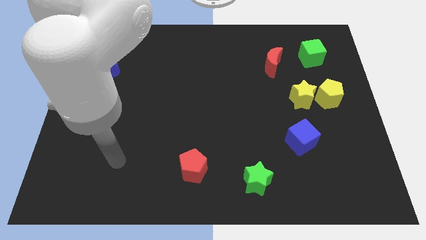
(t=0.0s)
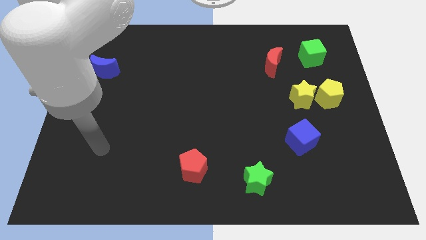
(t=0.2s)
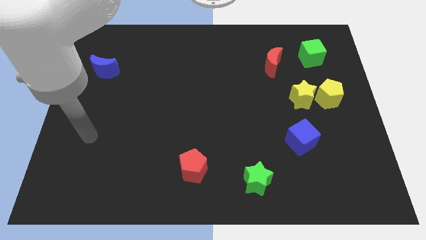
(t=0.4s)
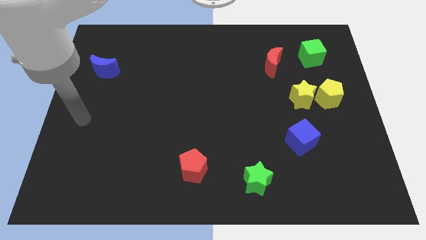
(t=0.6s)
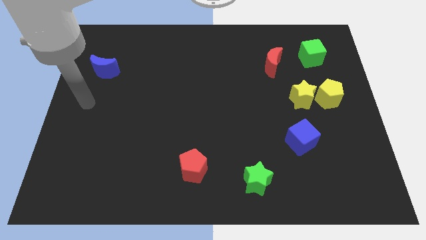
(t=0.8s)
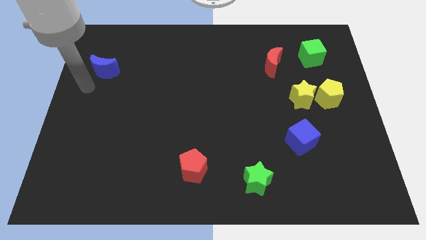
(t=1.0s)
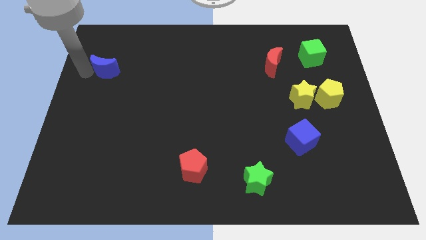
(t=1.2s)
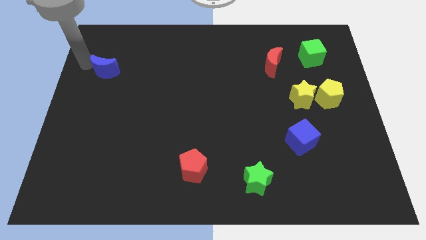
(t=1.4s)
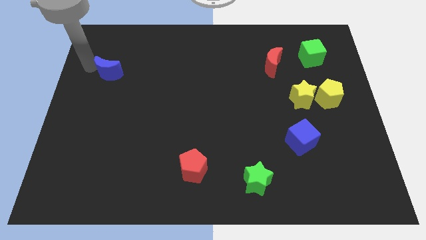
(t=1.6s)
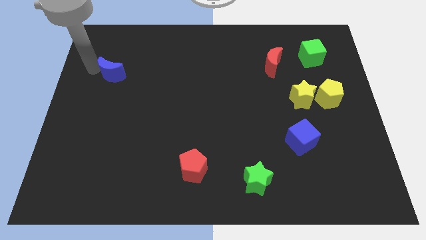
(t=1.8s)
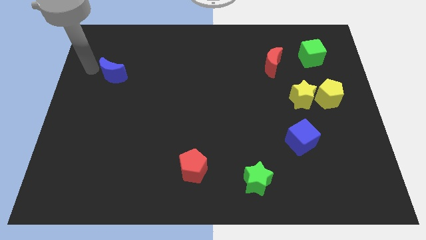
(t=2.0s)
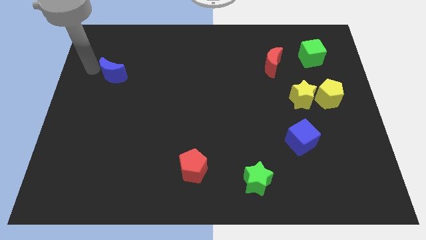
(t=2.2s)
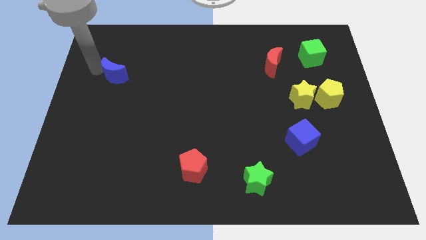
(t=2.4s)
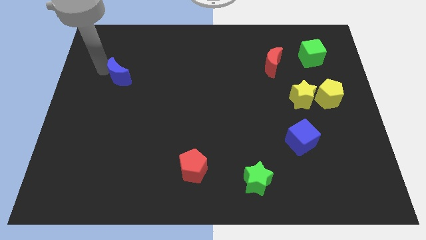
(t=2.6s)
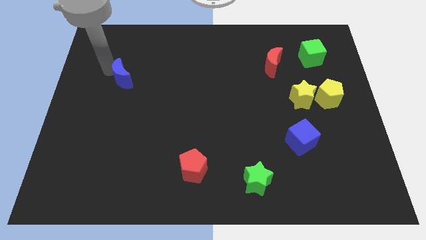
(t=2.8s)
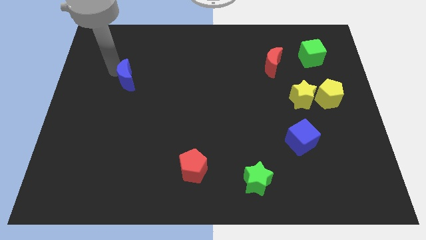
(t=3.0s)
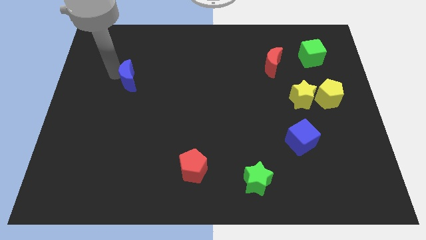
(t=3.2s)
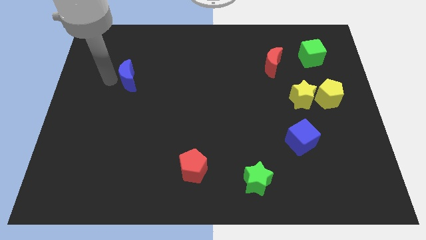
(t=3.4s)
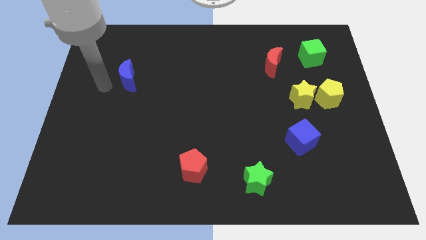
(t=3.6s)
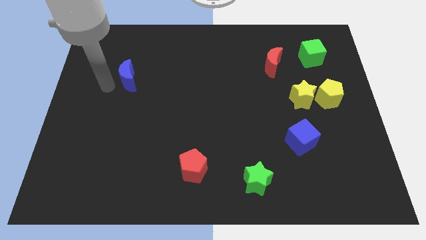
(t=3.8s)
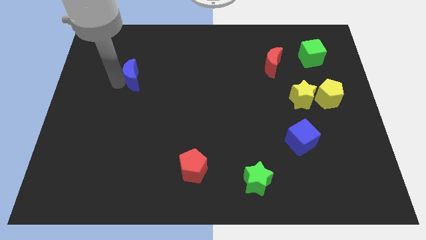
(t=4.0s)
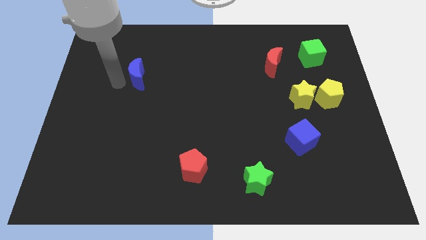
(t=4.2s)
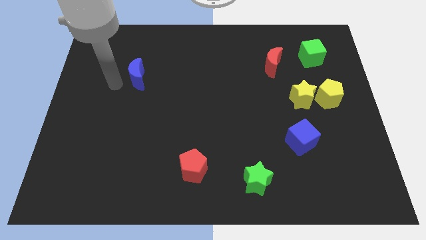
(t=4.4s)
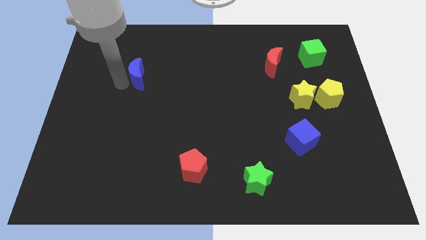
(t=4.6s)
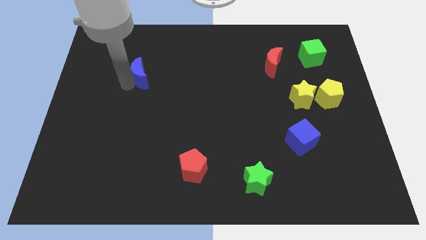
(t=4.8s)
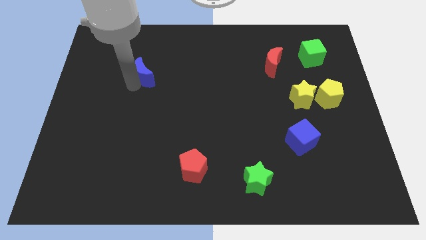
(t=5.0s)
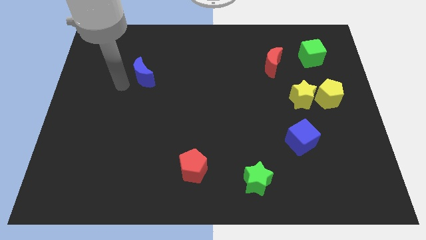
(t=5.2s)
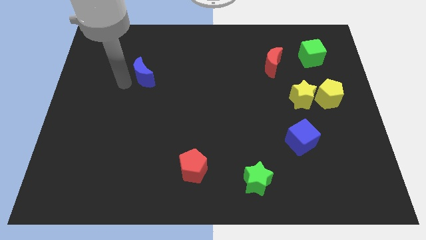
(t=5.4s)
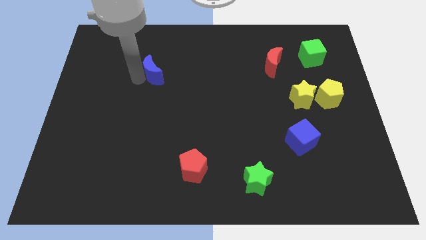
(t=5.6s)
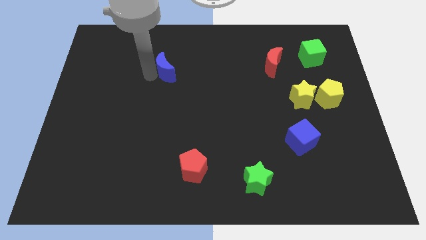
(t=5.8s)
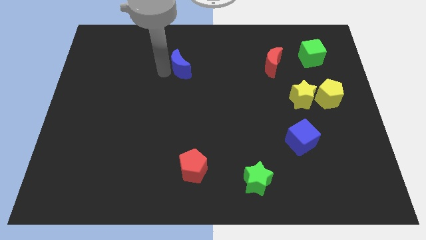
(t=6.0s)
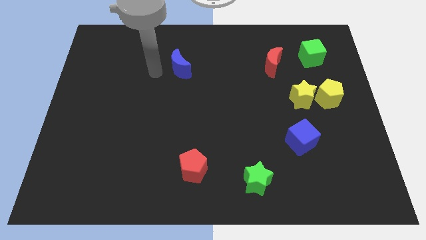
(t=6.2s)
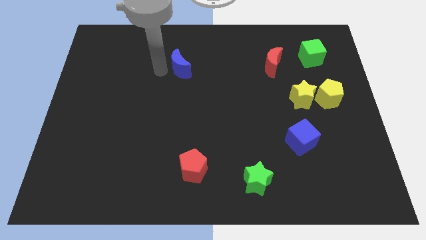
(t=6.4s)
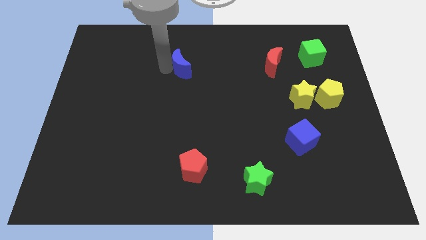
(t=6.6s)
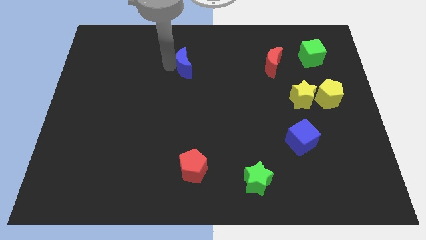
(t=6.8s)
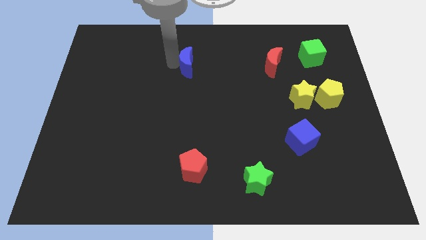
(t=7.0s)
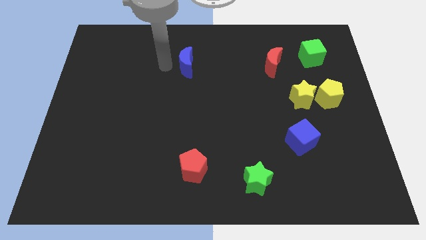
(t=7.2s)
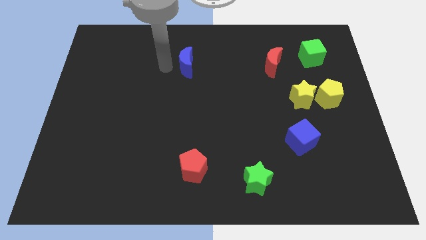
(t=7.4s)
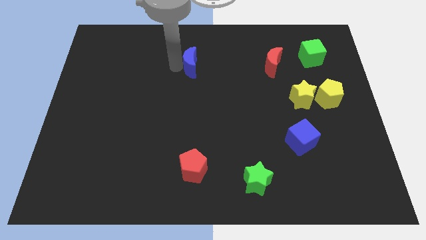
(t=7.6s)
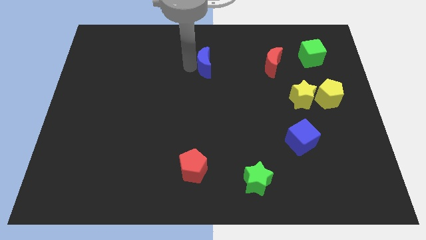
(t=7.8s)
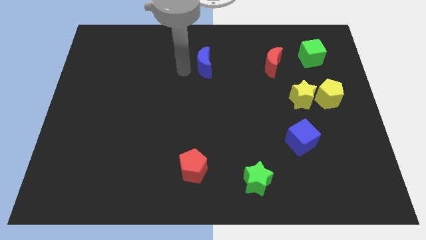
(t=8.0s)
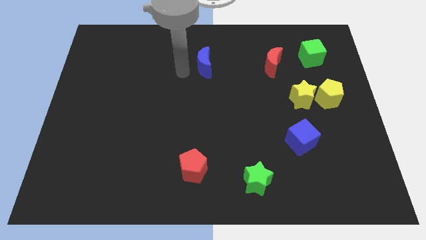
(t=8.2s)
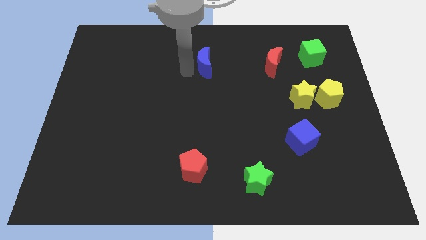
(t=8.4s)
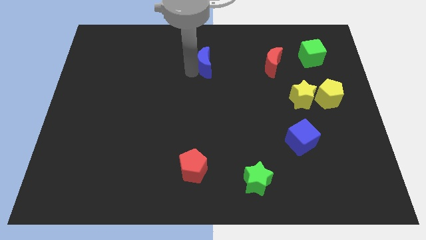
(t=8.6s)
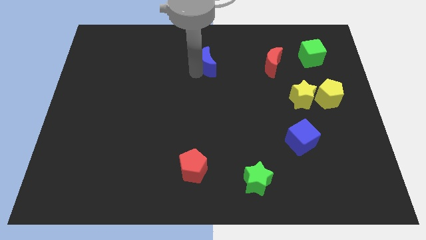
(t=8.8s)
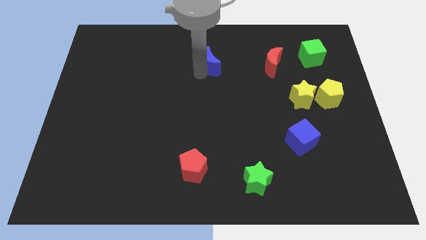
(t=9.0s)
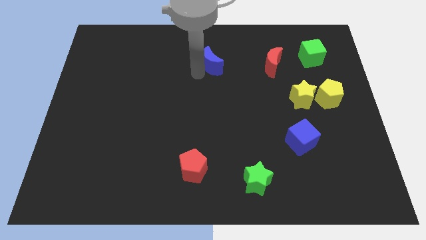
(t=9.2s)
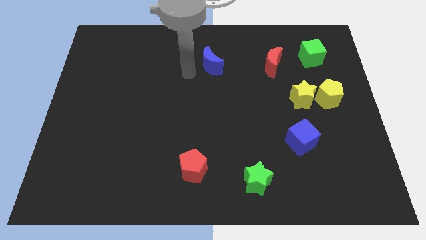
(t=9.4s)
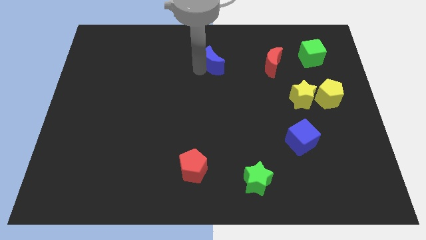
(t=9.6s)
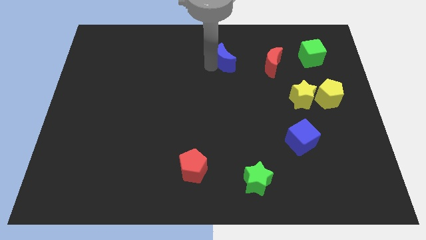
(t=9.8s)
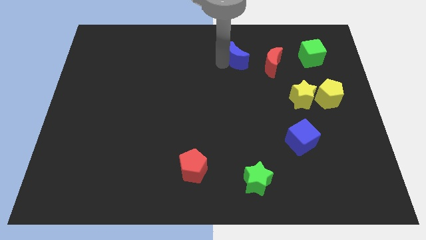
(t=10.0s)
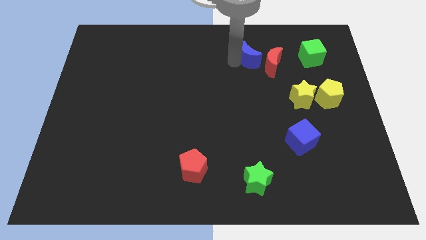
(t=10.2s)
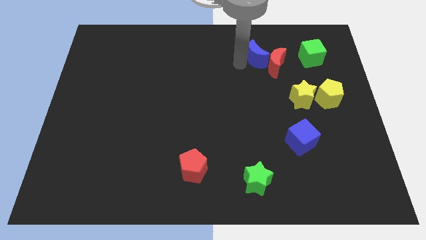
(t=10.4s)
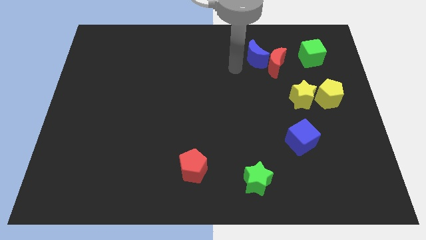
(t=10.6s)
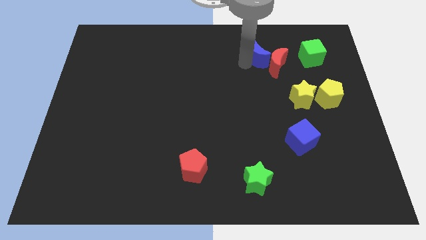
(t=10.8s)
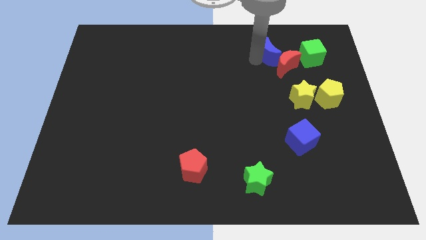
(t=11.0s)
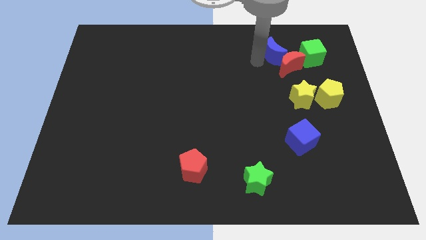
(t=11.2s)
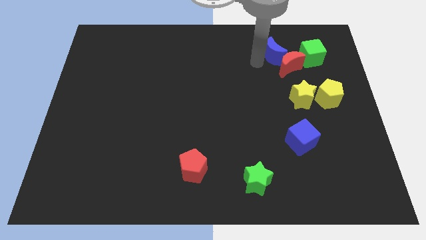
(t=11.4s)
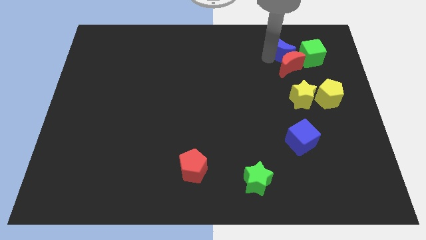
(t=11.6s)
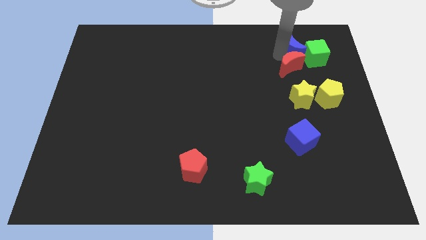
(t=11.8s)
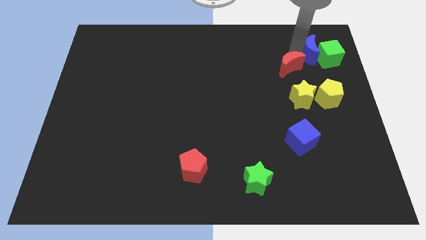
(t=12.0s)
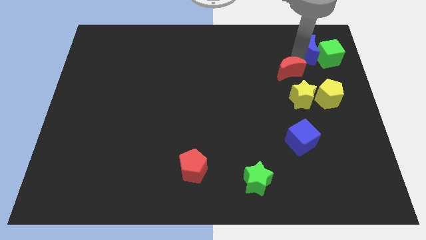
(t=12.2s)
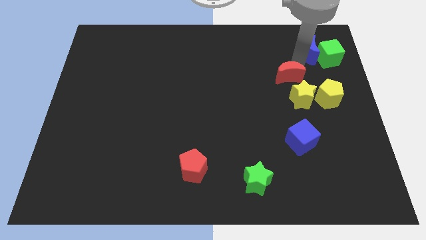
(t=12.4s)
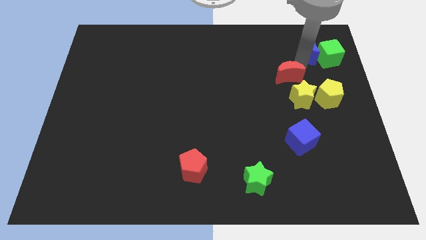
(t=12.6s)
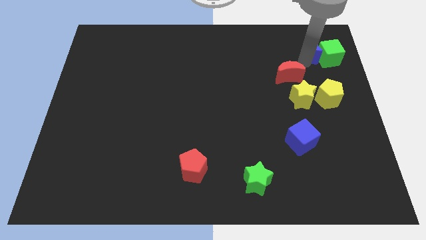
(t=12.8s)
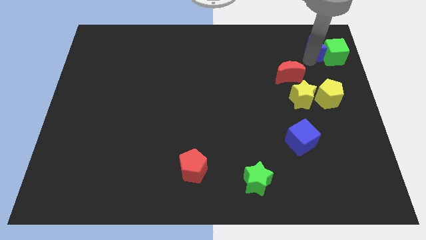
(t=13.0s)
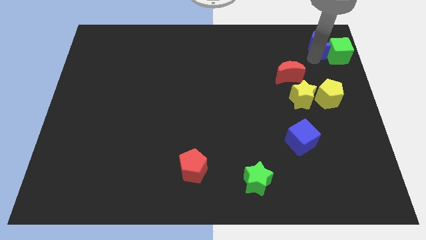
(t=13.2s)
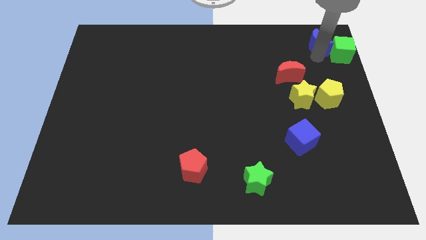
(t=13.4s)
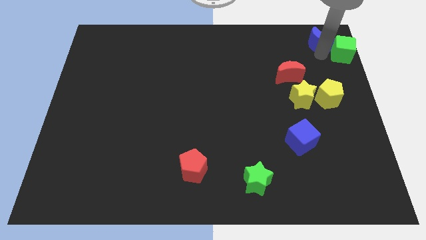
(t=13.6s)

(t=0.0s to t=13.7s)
put the blue moon to the top right corner
